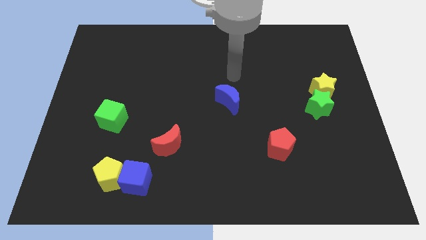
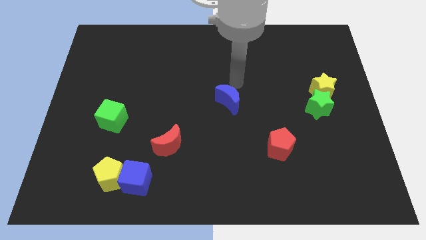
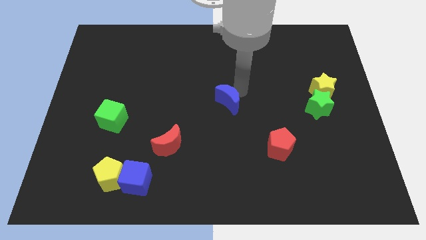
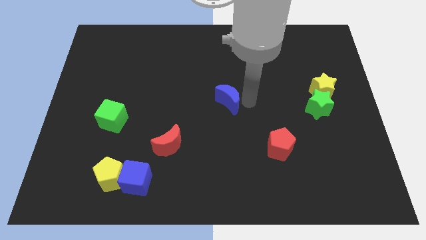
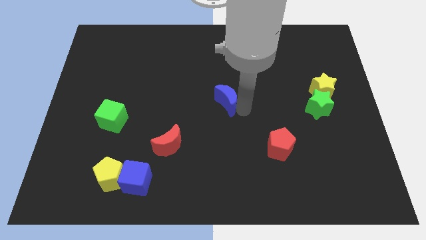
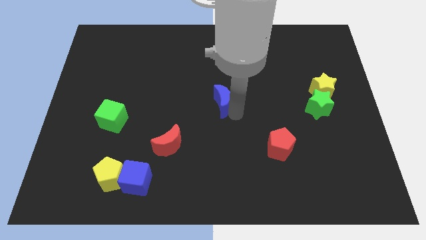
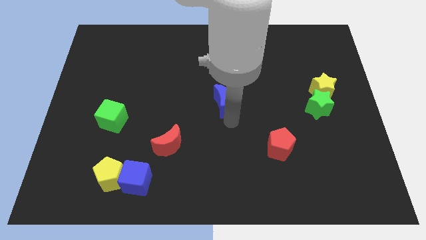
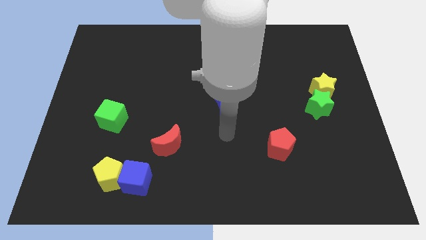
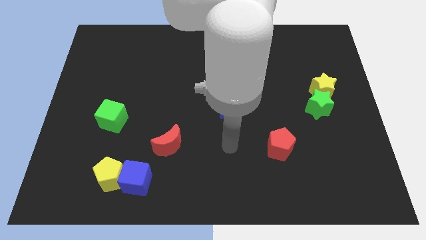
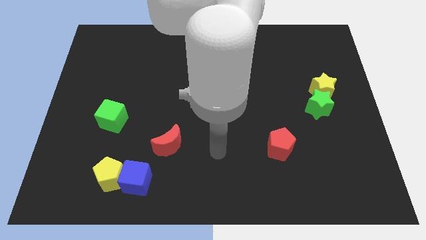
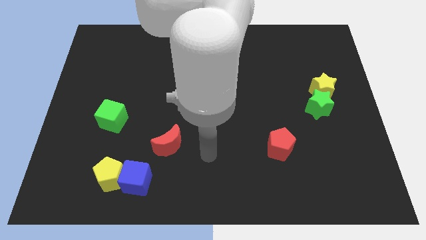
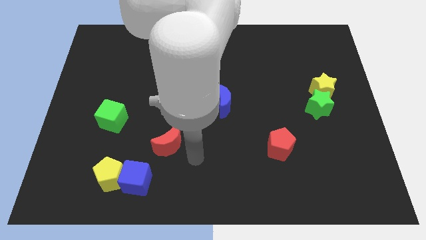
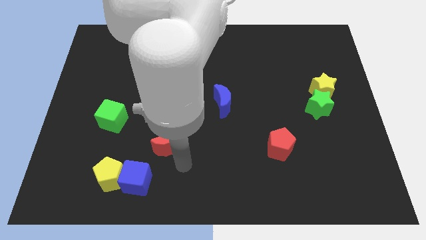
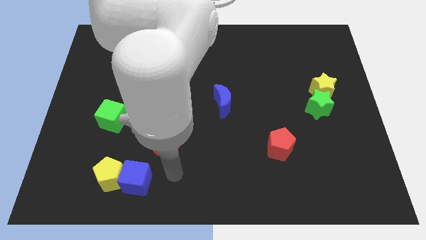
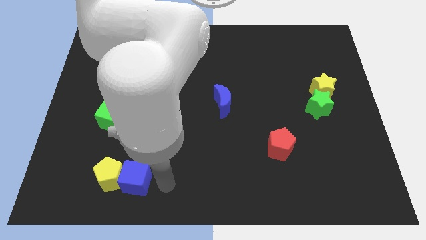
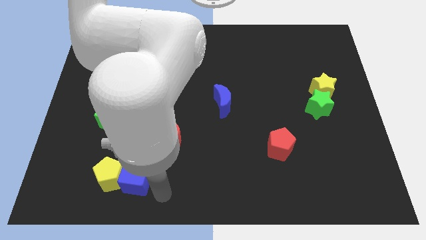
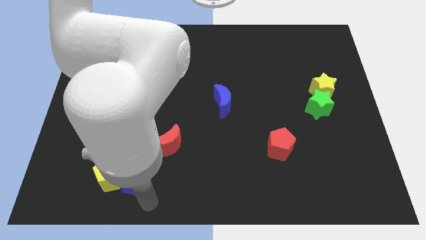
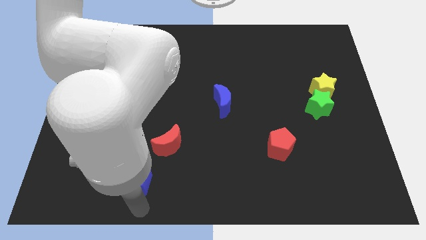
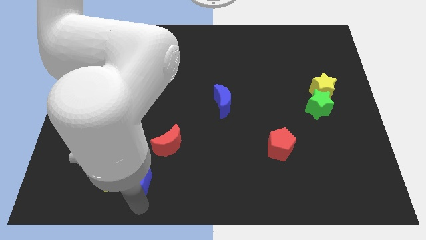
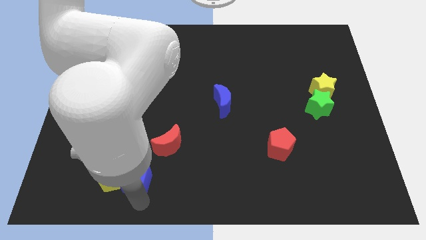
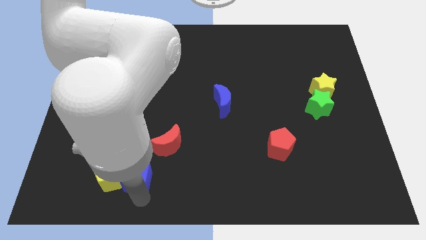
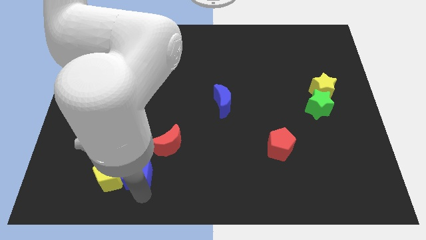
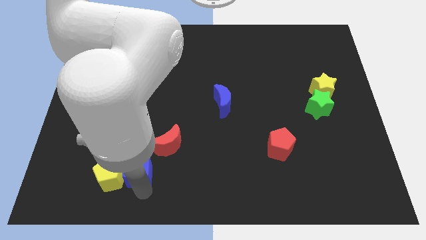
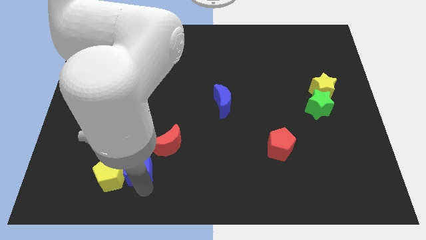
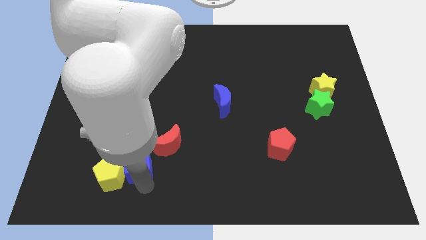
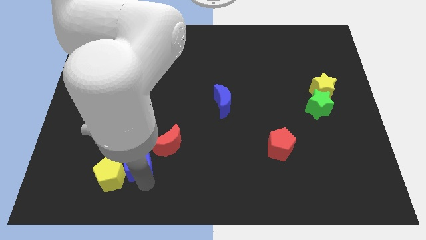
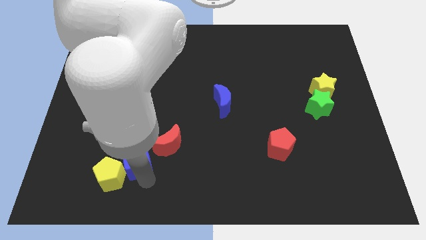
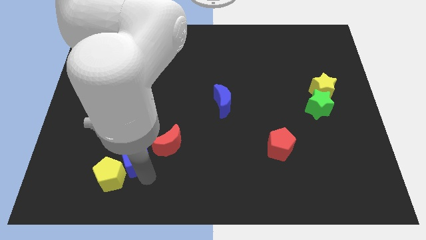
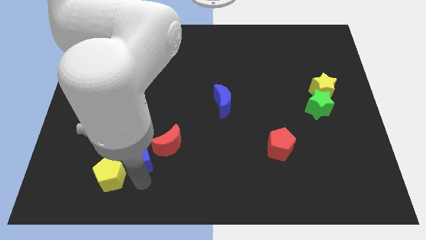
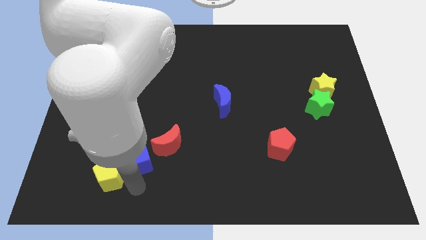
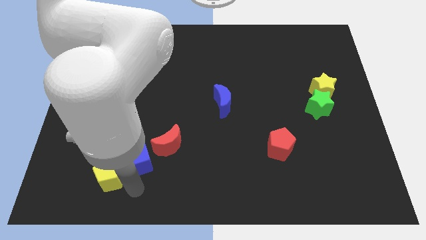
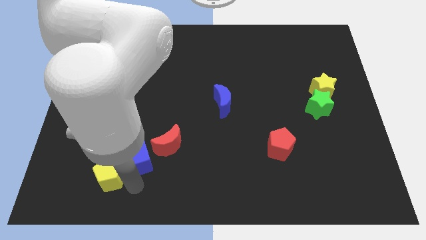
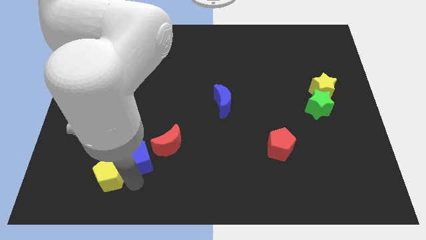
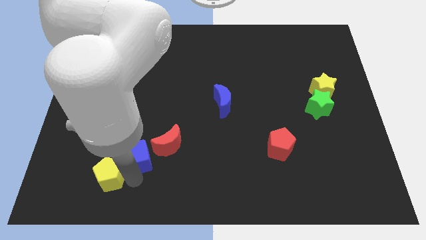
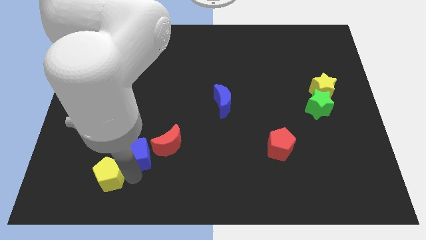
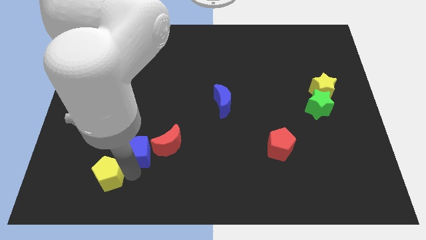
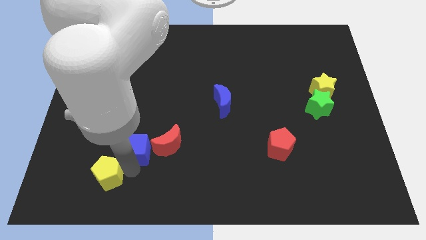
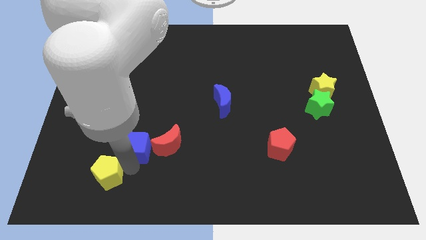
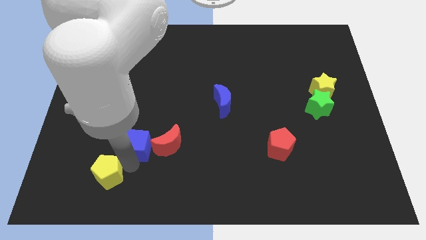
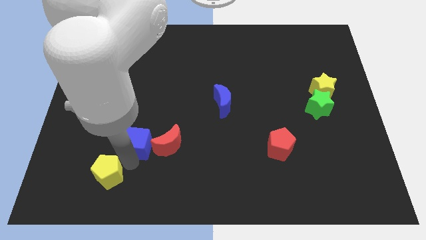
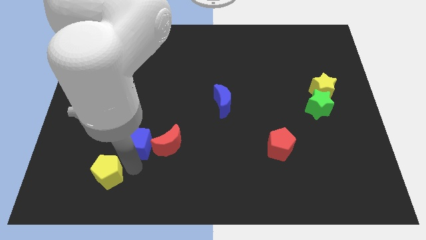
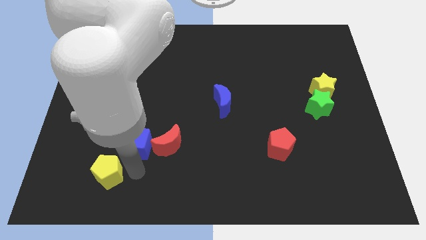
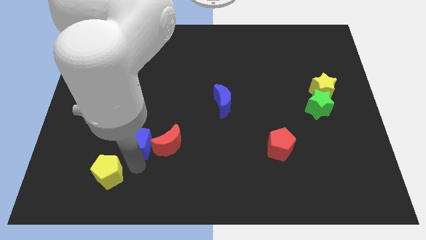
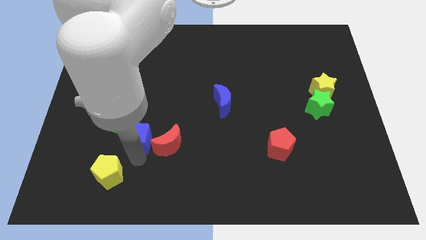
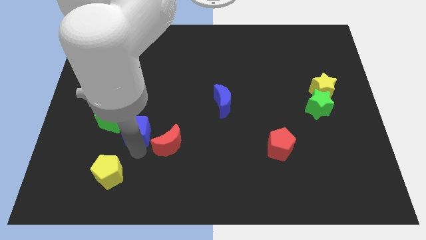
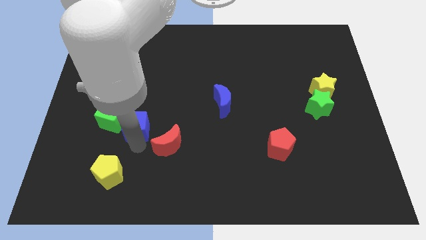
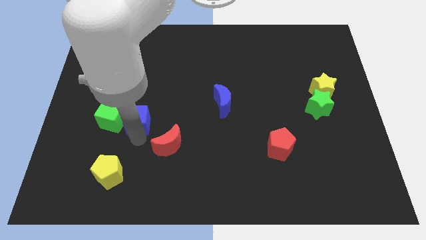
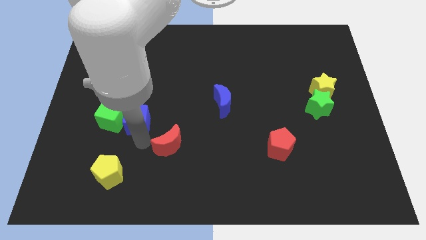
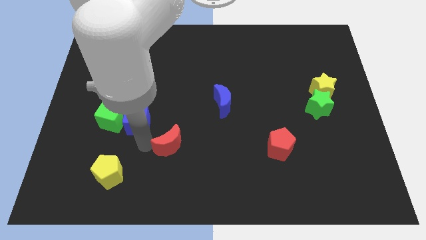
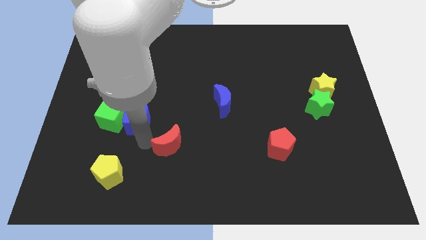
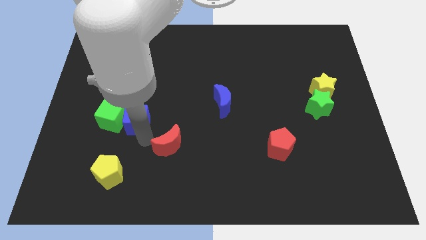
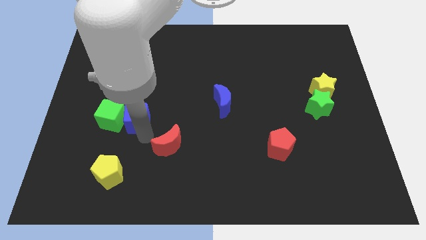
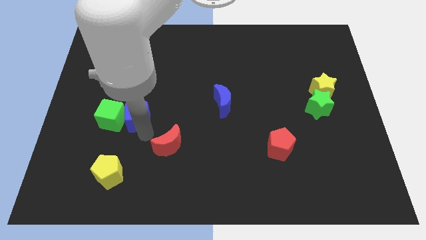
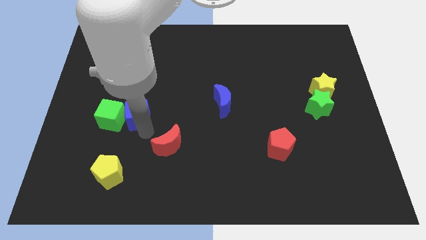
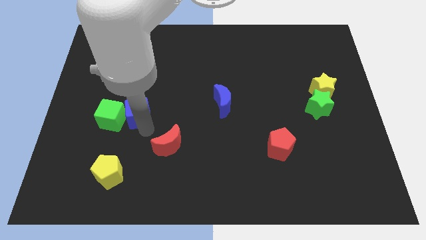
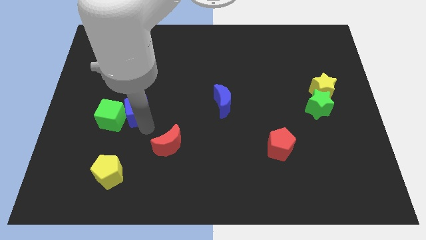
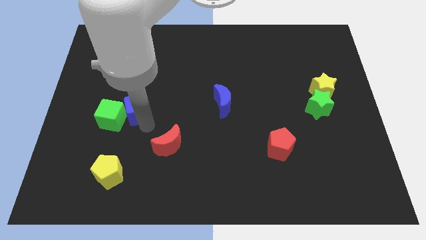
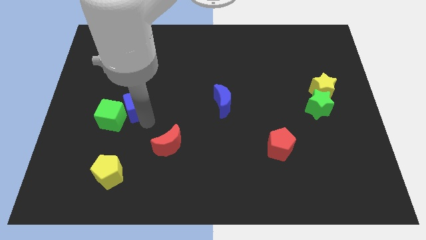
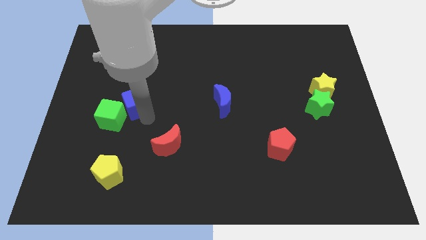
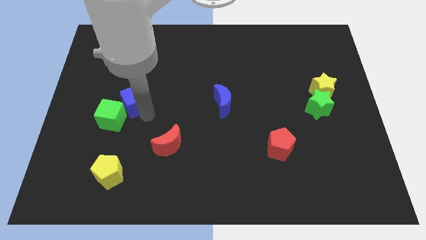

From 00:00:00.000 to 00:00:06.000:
slide the blue cube above the green cube

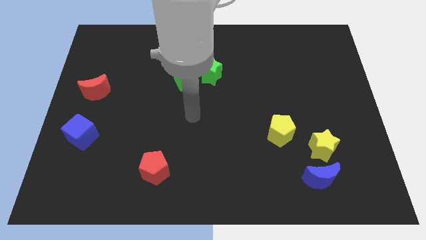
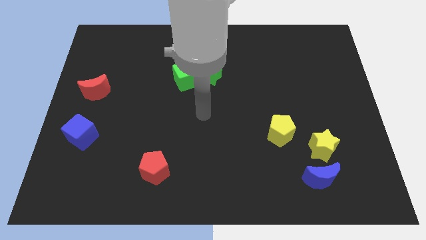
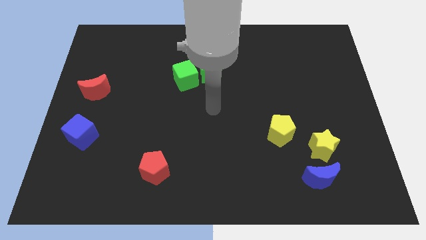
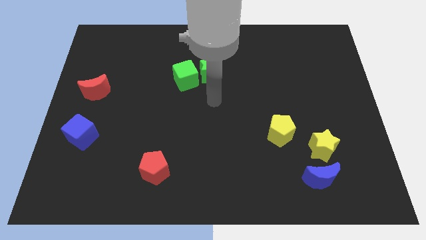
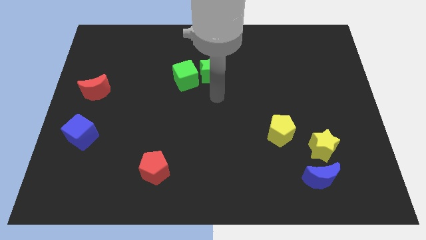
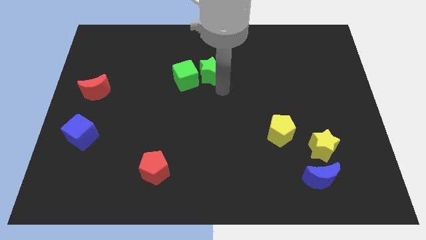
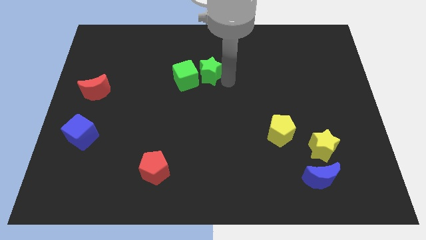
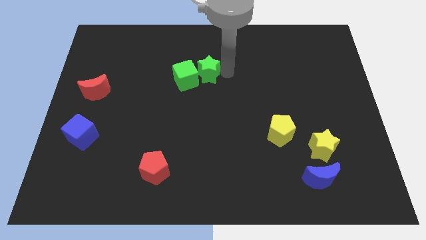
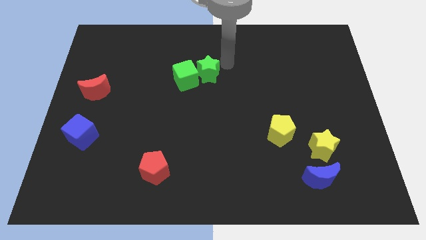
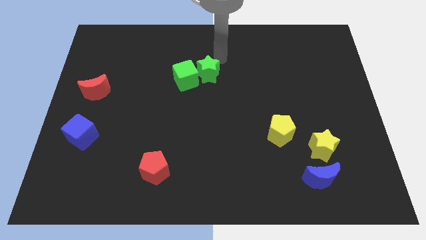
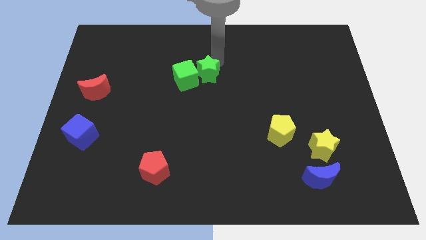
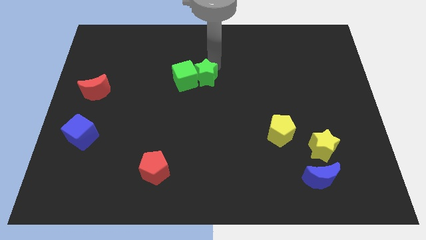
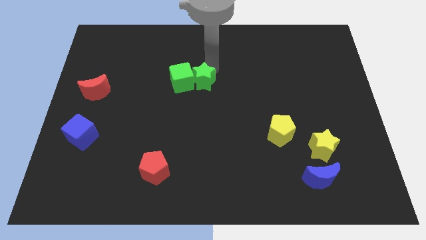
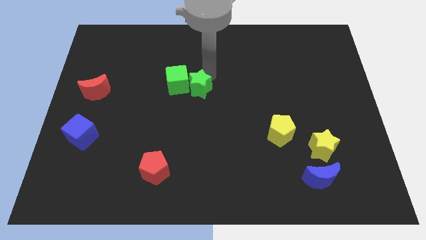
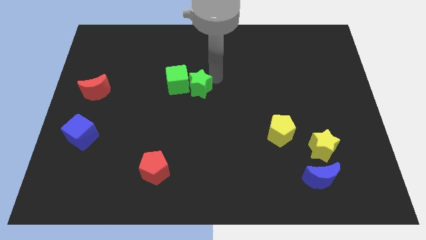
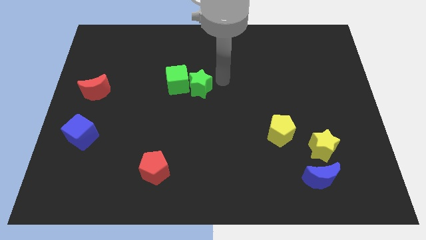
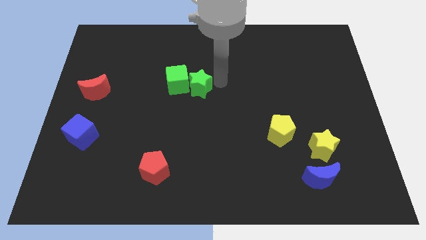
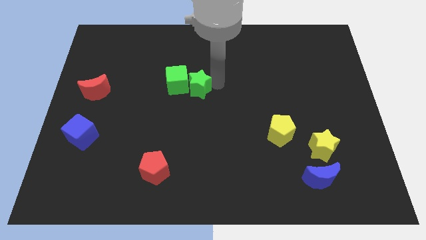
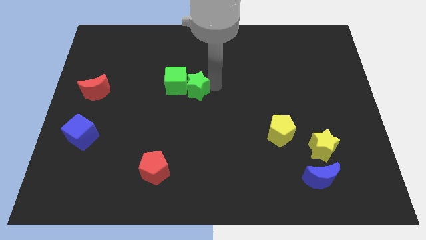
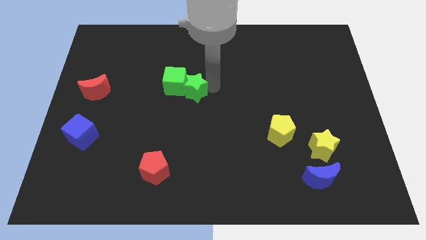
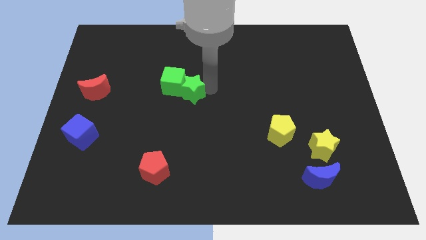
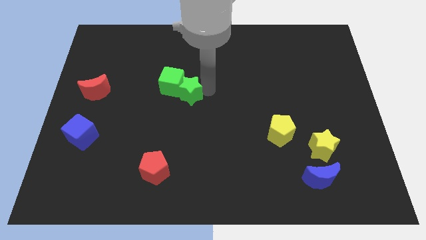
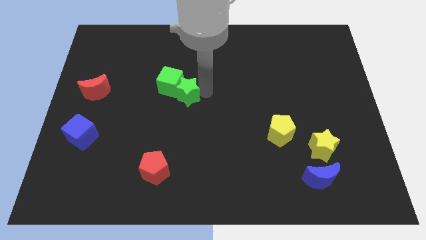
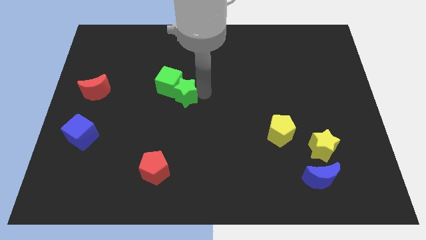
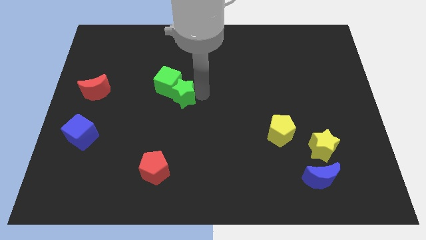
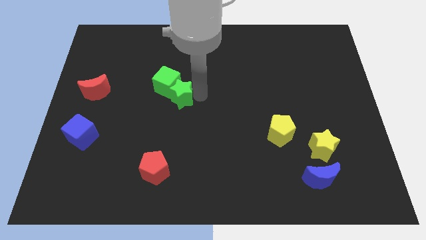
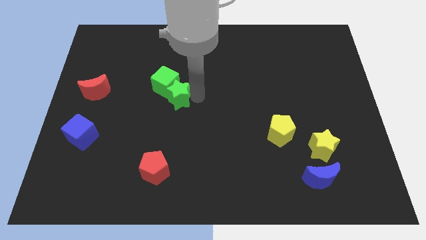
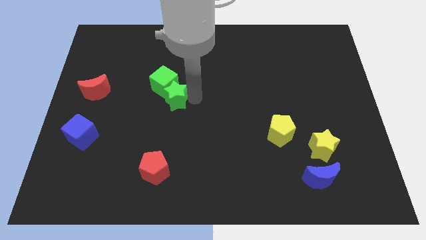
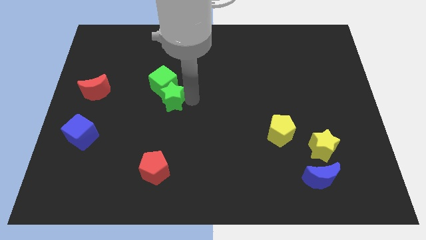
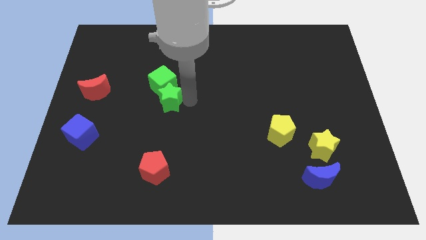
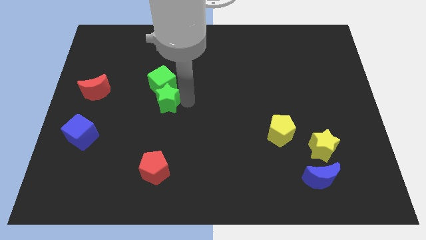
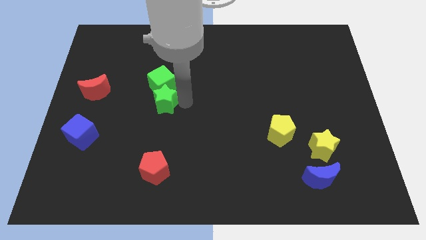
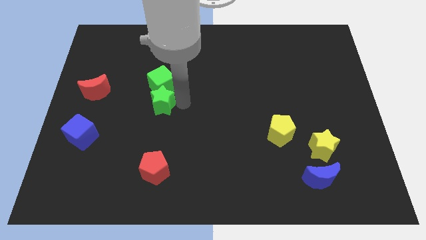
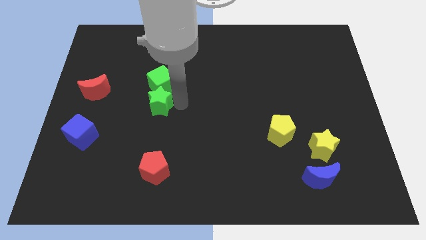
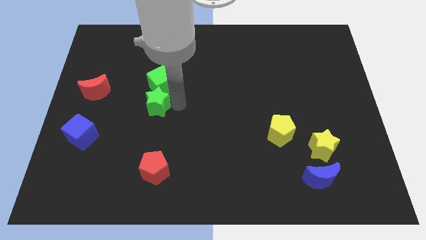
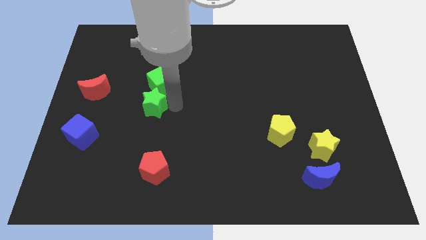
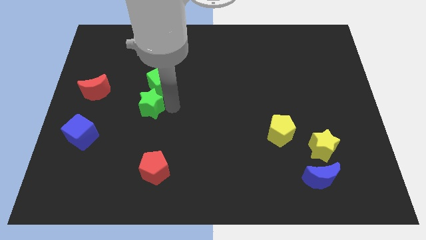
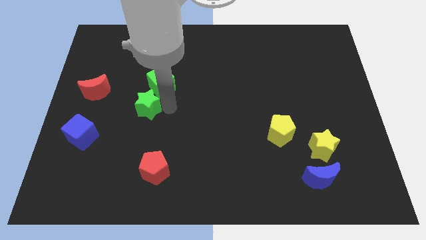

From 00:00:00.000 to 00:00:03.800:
slide the green star to the right of the red moon
